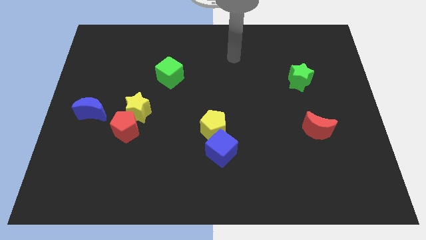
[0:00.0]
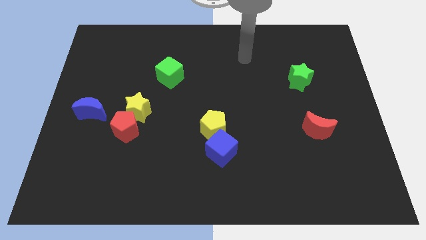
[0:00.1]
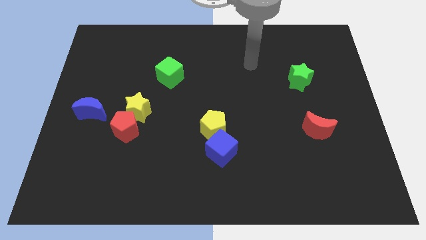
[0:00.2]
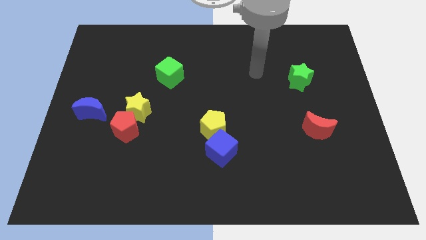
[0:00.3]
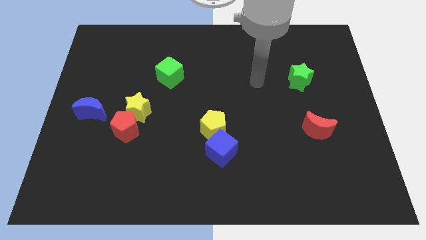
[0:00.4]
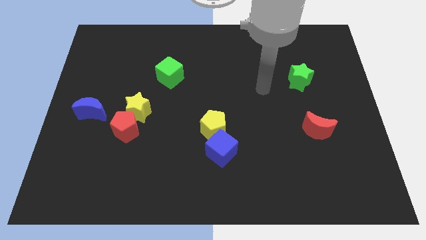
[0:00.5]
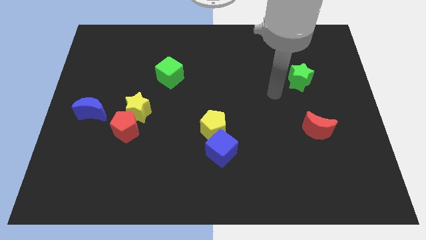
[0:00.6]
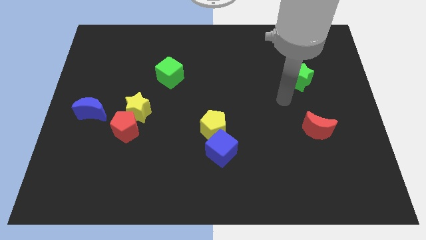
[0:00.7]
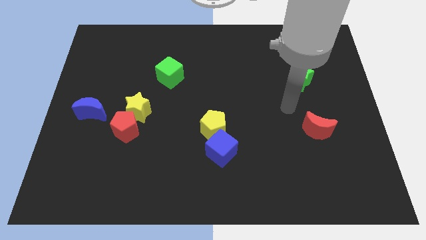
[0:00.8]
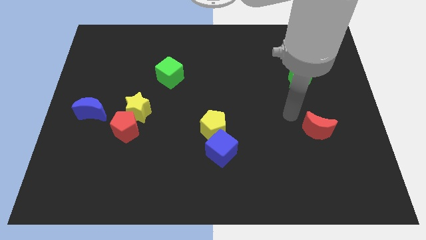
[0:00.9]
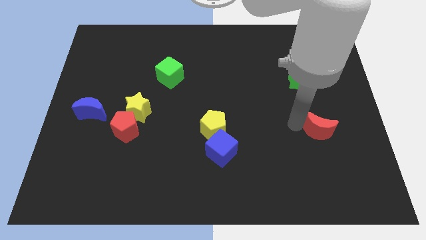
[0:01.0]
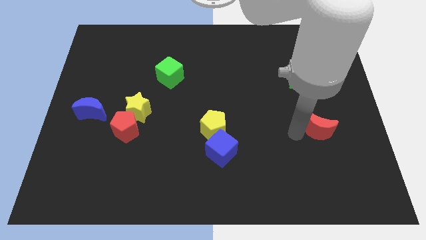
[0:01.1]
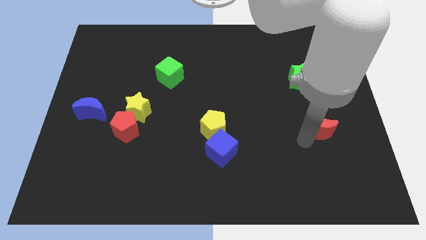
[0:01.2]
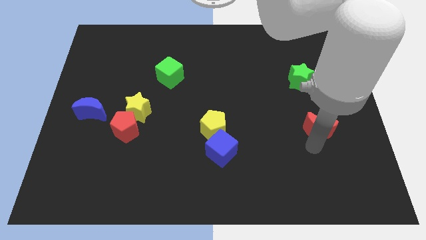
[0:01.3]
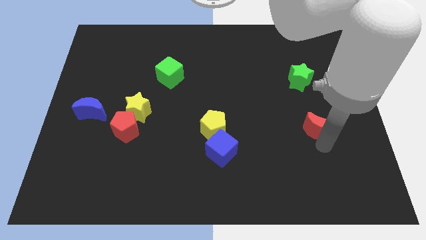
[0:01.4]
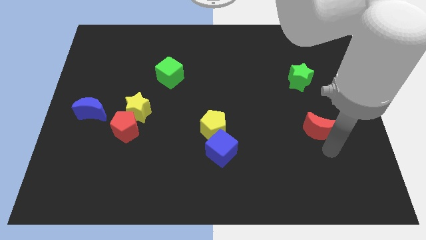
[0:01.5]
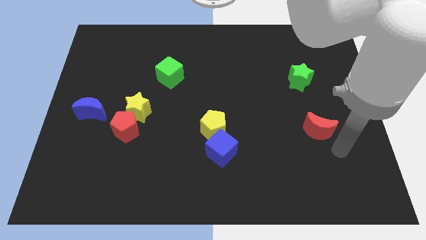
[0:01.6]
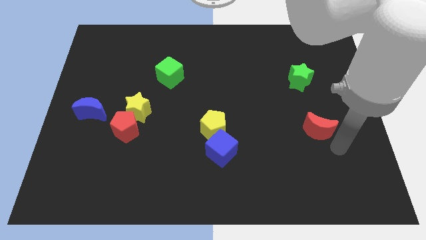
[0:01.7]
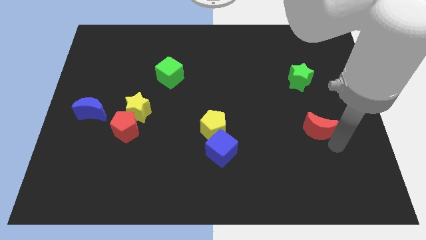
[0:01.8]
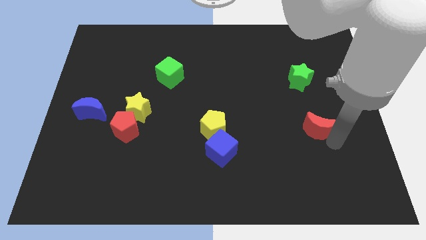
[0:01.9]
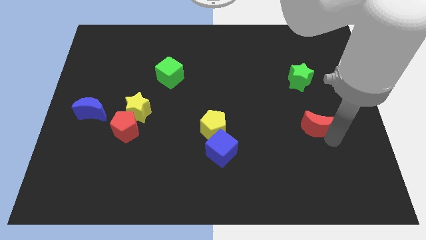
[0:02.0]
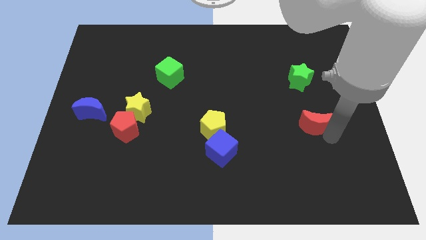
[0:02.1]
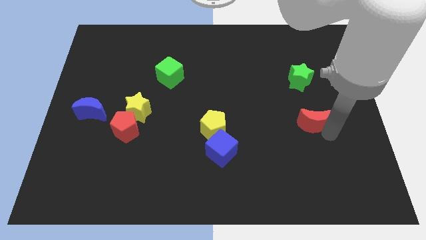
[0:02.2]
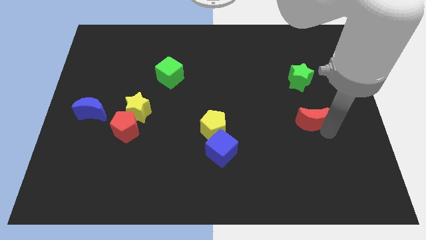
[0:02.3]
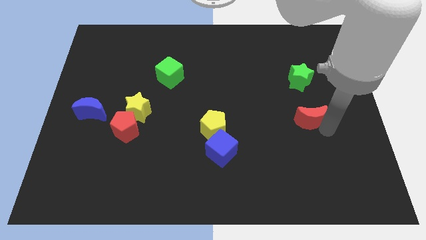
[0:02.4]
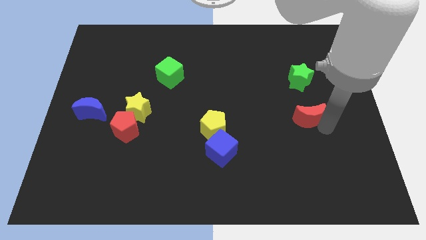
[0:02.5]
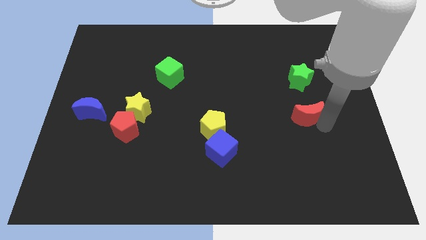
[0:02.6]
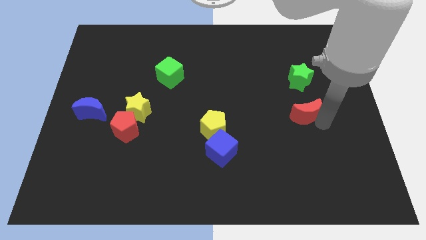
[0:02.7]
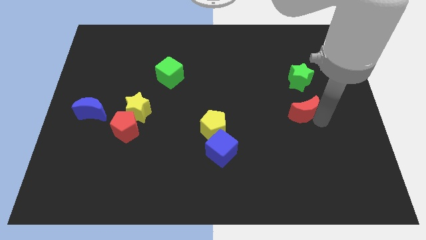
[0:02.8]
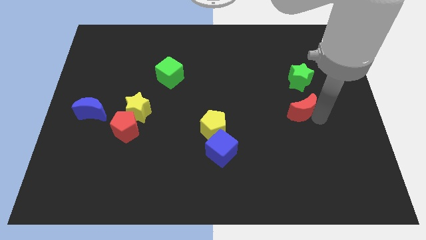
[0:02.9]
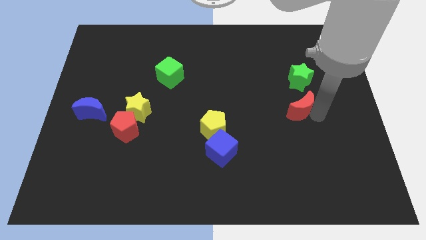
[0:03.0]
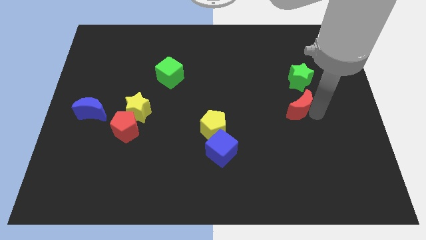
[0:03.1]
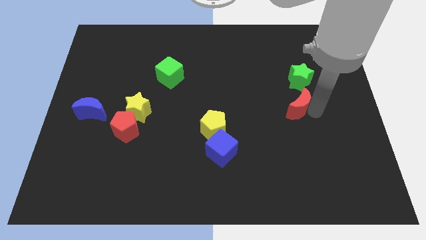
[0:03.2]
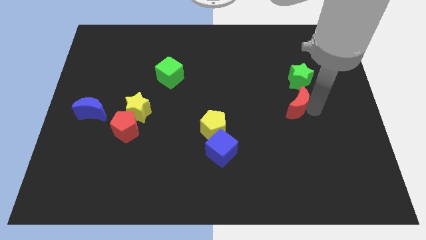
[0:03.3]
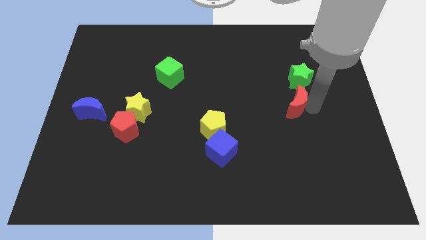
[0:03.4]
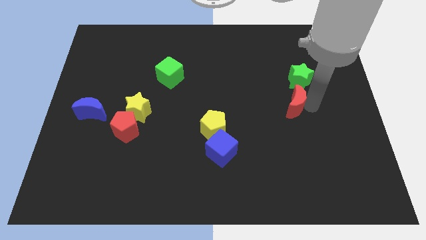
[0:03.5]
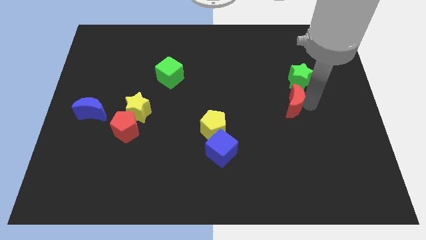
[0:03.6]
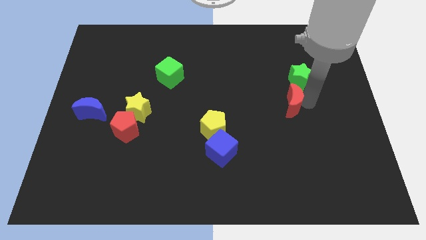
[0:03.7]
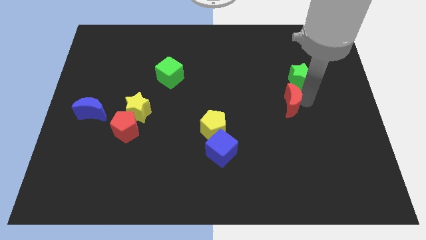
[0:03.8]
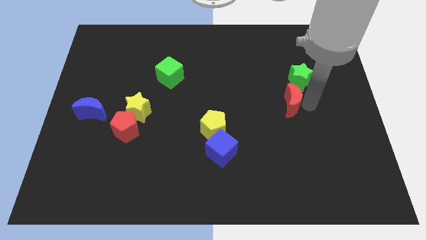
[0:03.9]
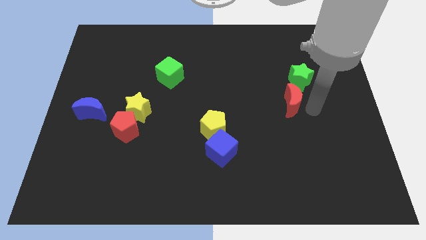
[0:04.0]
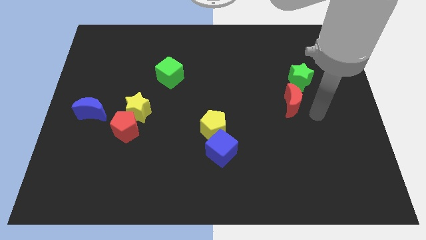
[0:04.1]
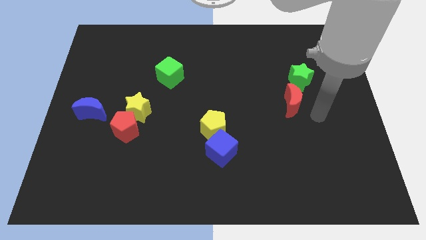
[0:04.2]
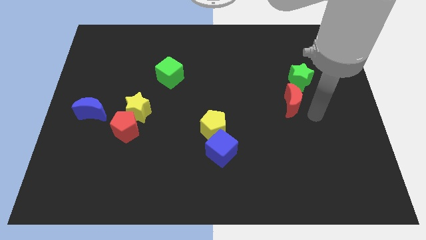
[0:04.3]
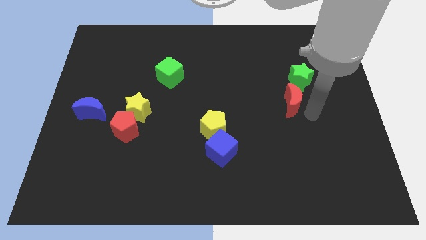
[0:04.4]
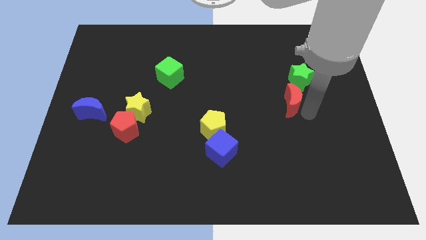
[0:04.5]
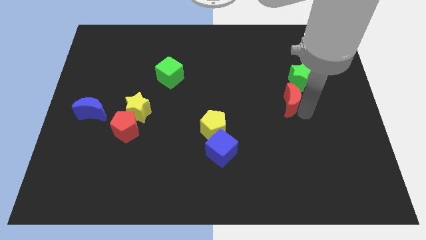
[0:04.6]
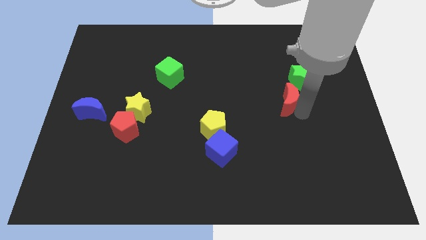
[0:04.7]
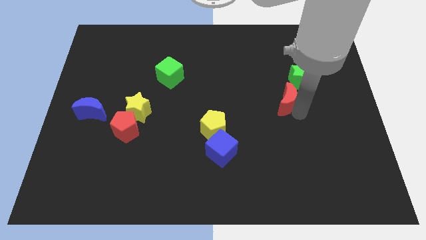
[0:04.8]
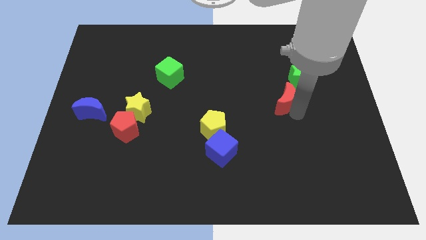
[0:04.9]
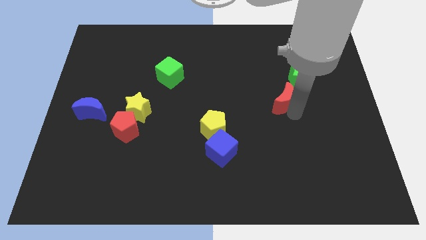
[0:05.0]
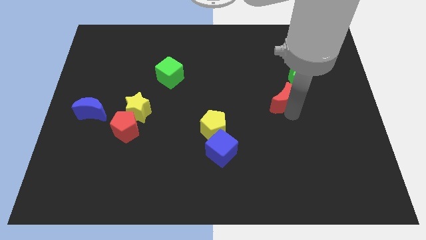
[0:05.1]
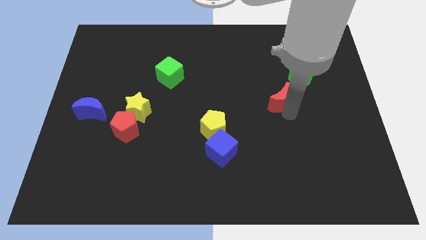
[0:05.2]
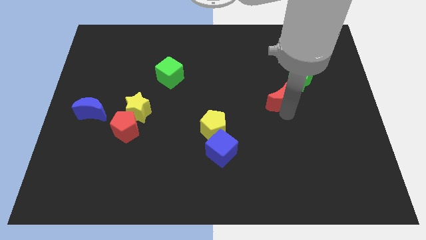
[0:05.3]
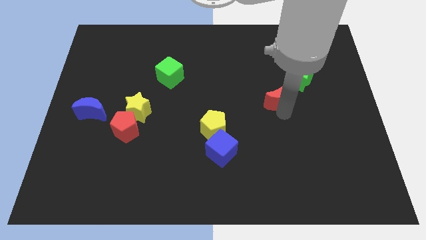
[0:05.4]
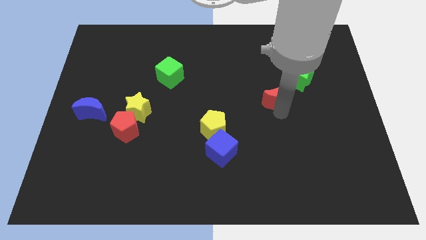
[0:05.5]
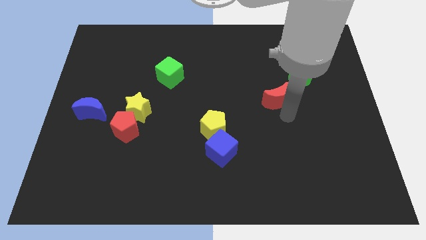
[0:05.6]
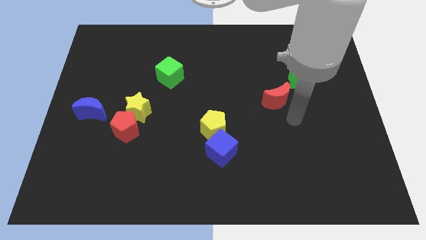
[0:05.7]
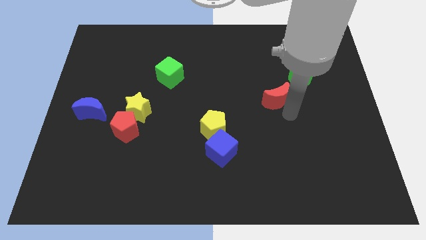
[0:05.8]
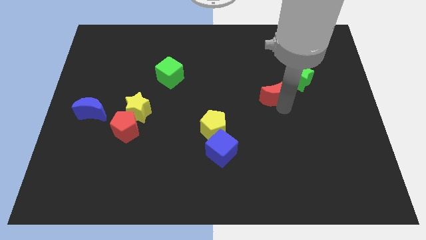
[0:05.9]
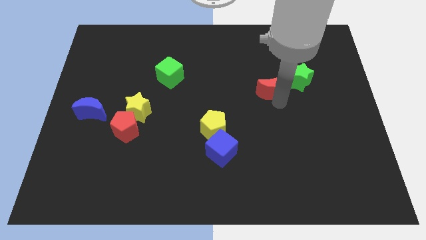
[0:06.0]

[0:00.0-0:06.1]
slide the red moon just left of the green star

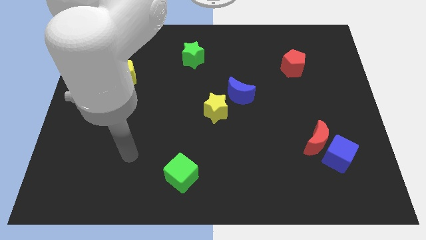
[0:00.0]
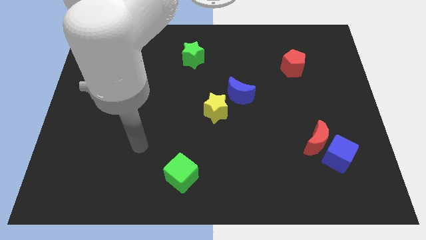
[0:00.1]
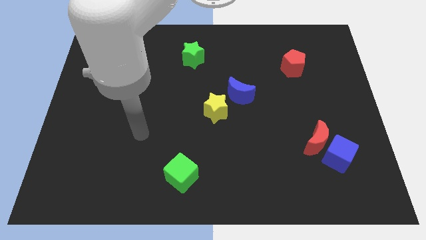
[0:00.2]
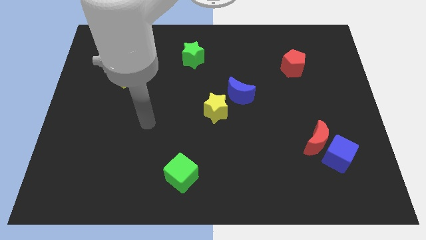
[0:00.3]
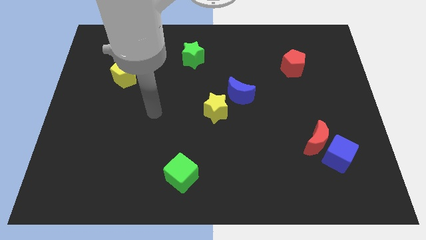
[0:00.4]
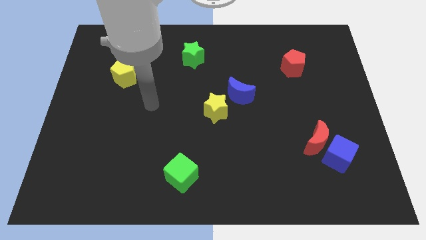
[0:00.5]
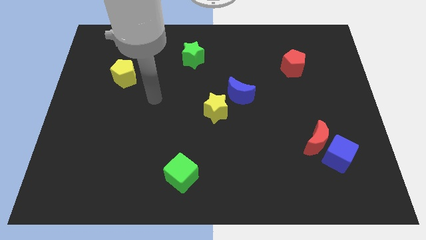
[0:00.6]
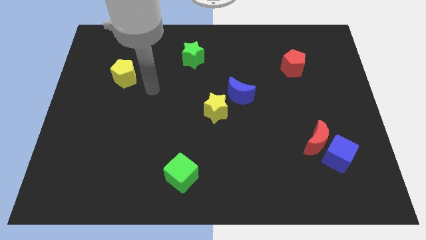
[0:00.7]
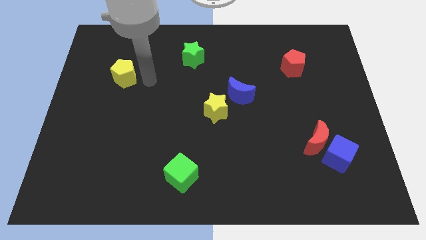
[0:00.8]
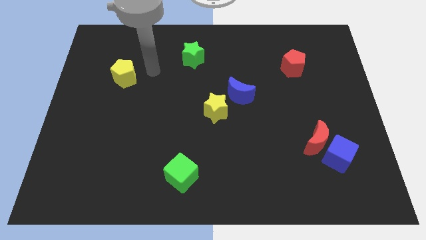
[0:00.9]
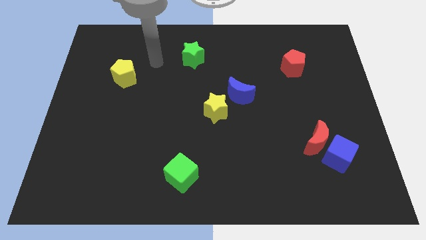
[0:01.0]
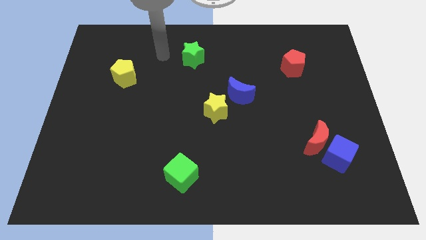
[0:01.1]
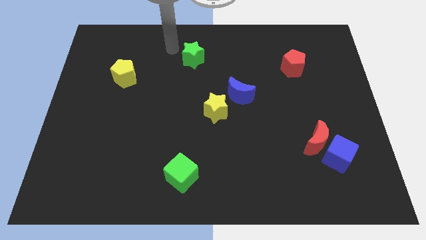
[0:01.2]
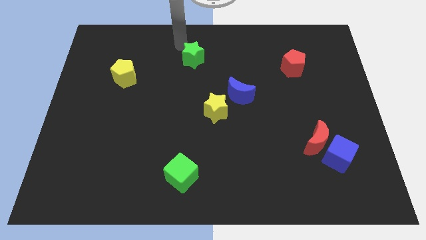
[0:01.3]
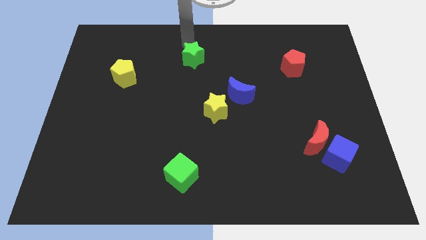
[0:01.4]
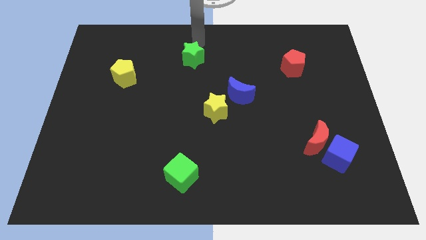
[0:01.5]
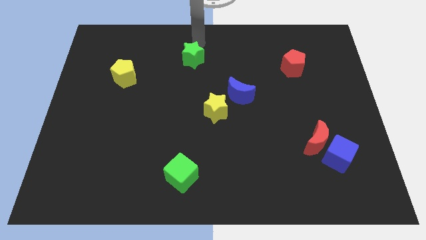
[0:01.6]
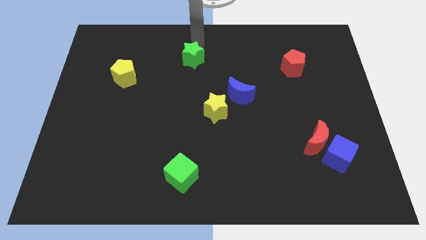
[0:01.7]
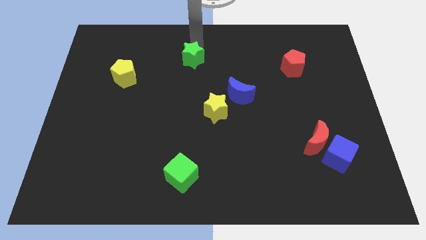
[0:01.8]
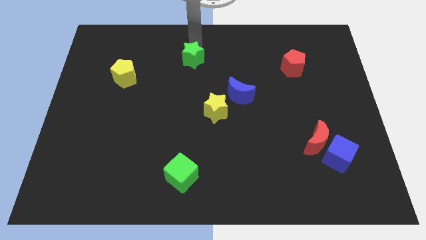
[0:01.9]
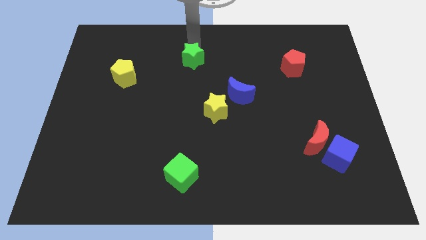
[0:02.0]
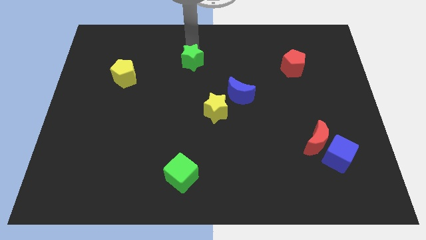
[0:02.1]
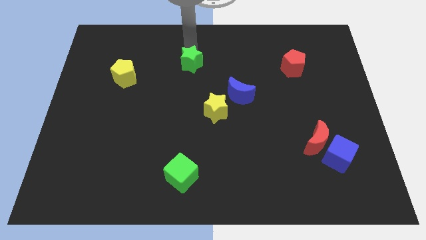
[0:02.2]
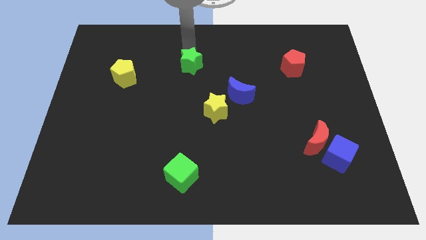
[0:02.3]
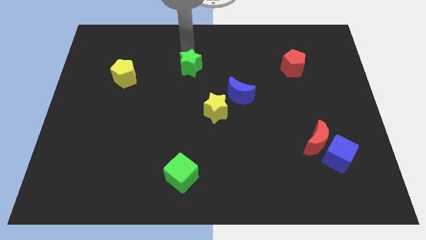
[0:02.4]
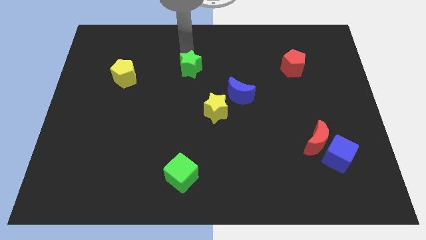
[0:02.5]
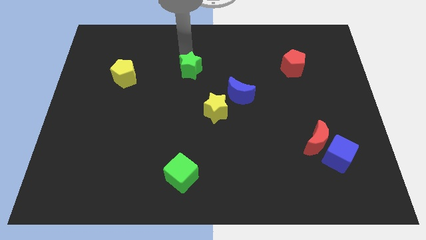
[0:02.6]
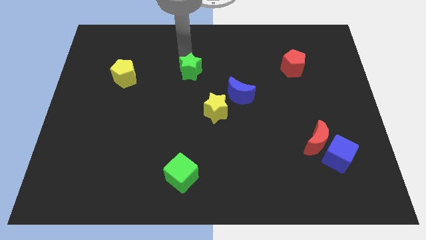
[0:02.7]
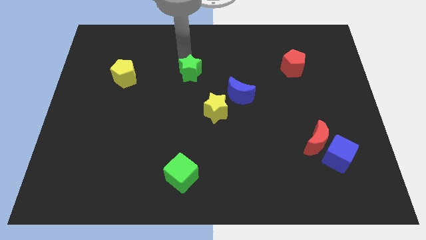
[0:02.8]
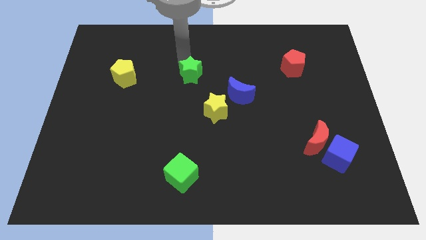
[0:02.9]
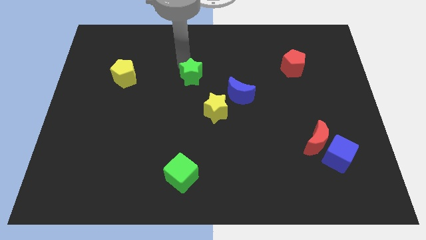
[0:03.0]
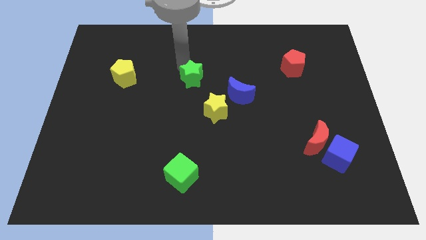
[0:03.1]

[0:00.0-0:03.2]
put the green star to the top left side of the yellow star
